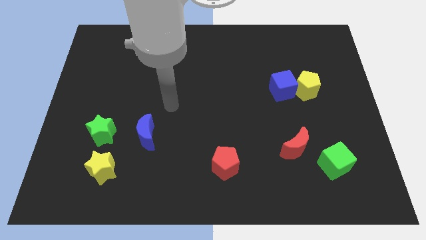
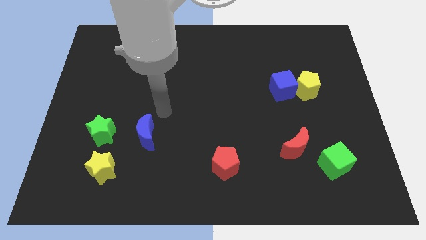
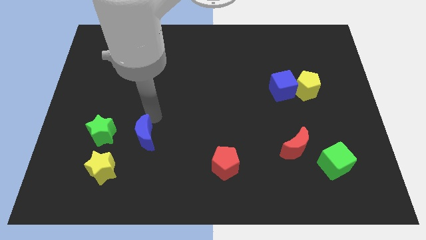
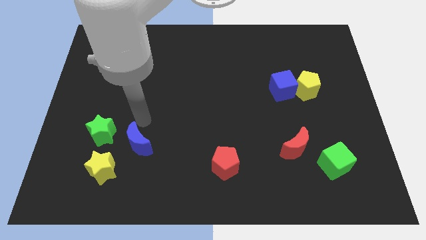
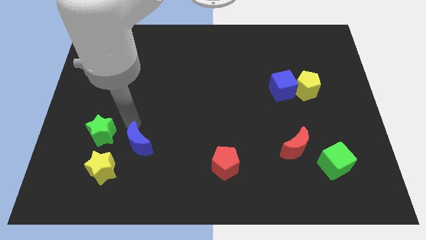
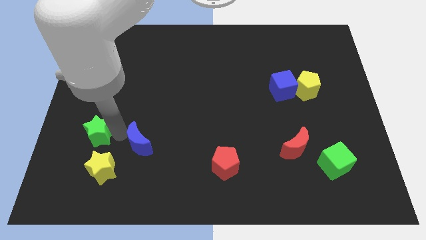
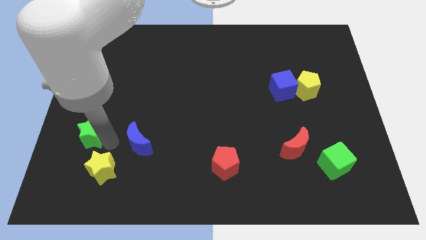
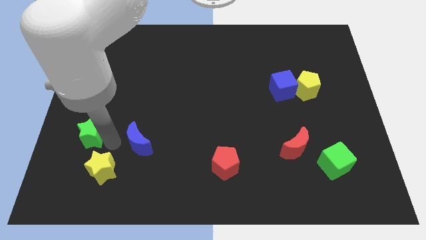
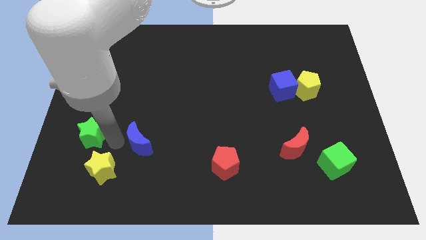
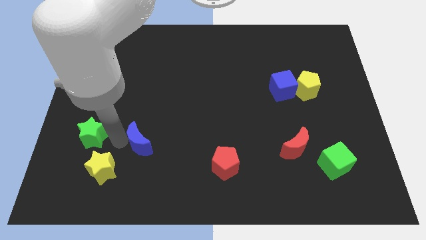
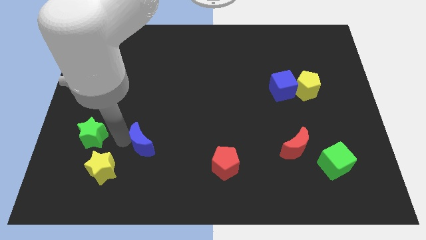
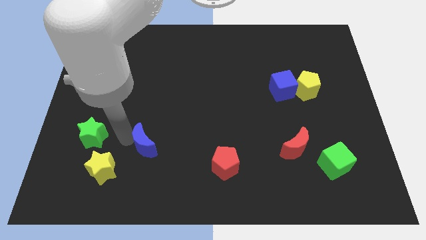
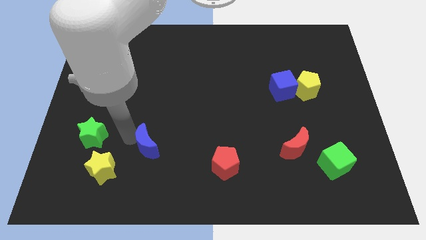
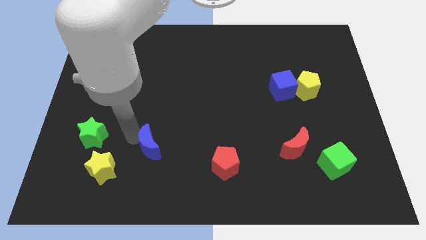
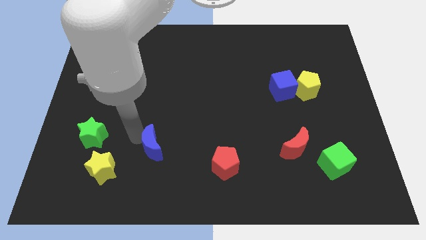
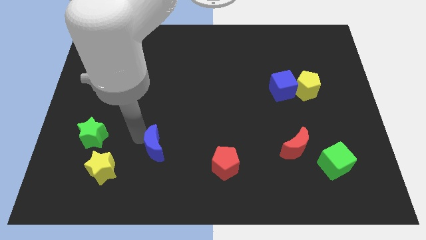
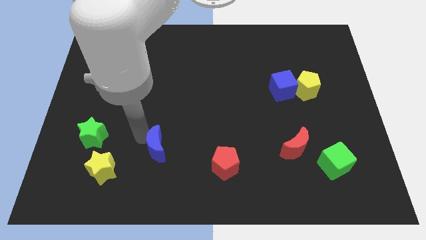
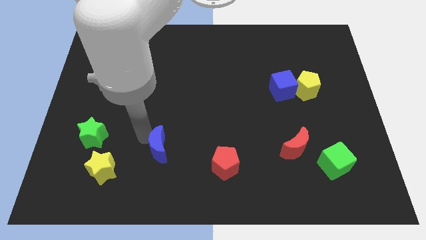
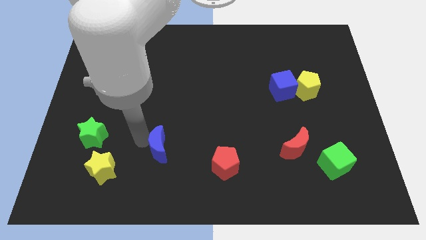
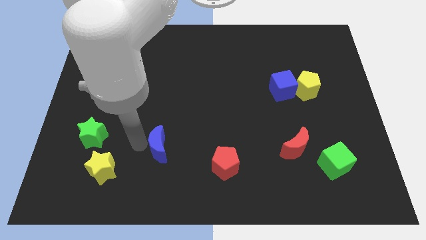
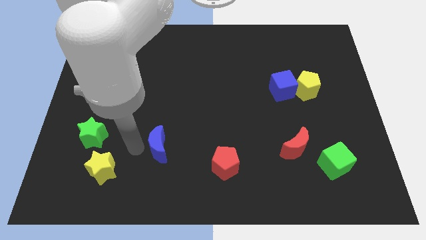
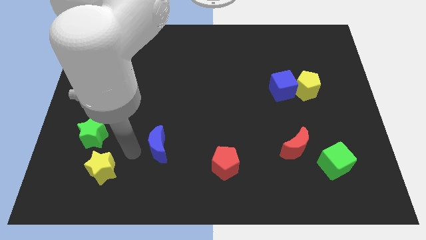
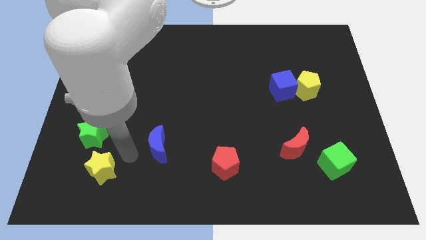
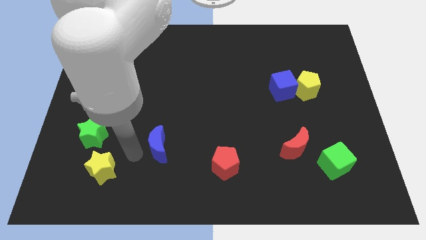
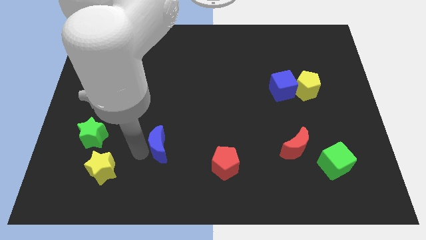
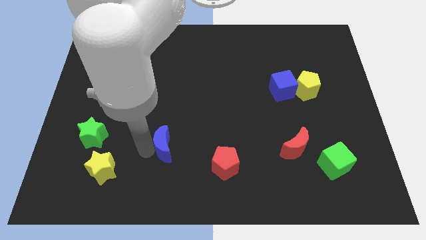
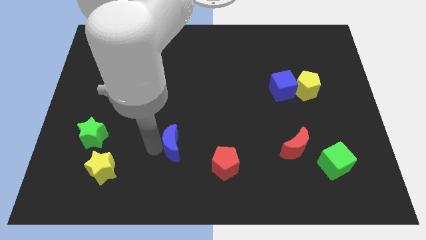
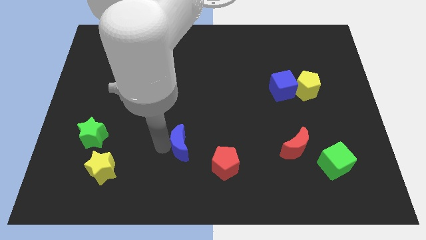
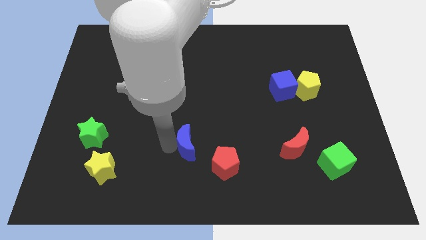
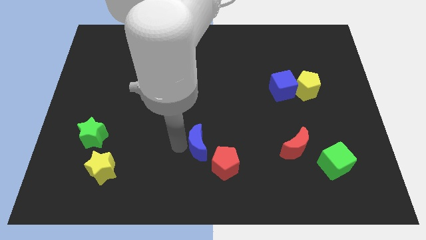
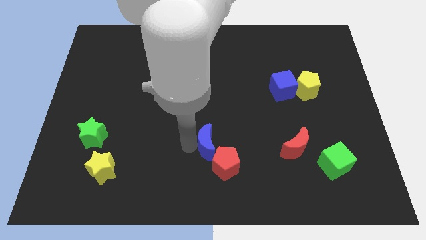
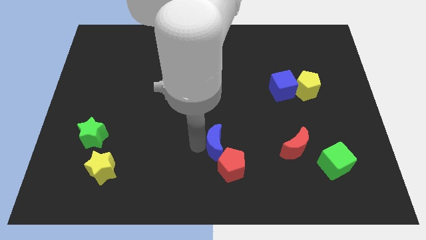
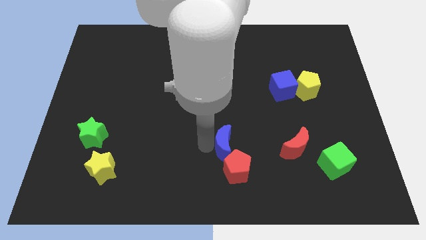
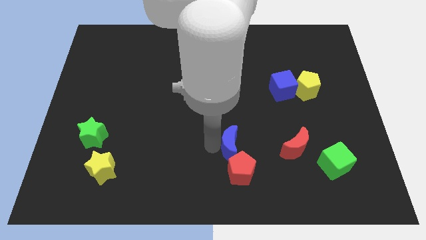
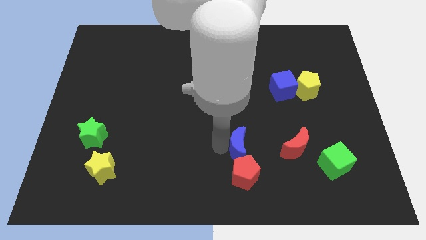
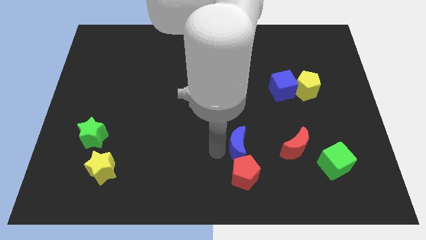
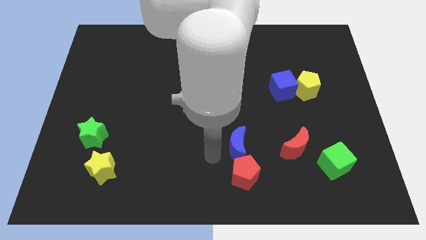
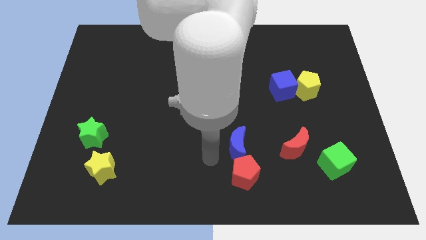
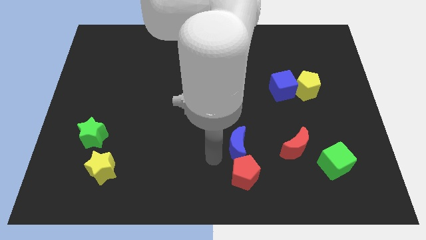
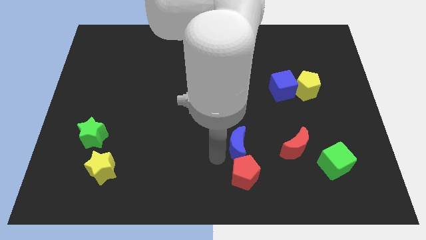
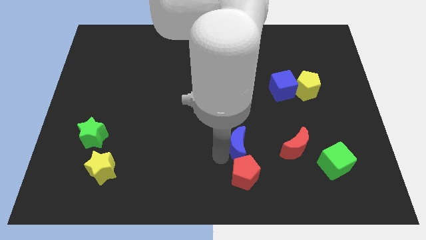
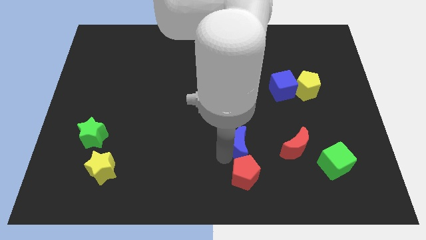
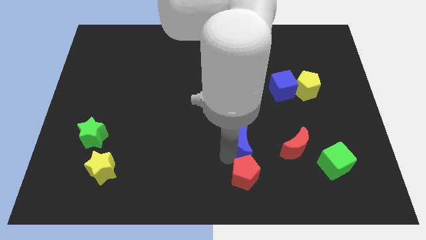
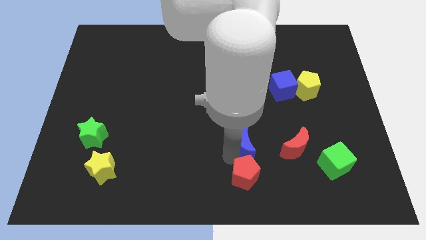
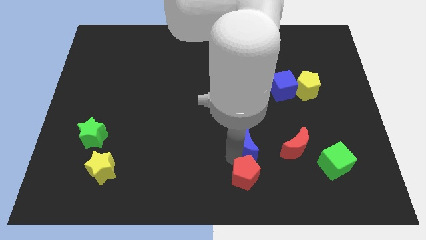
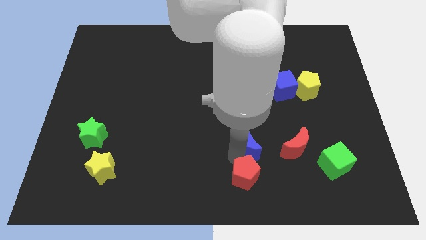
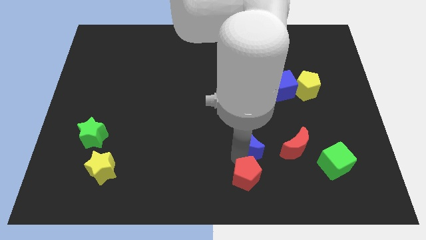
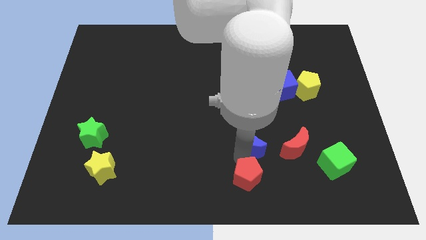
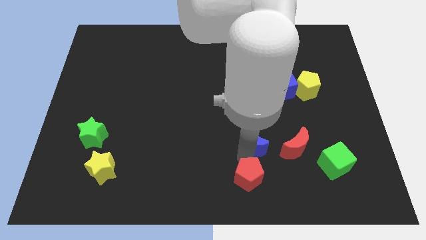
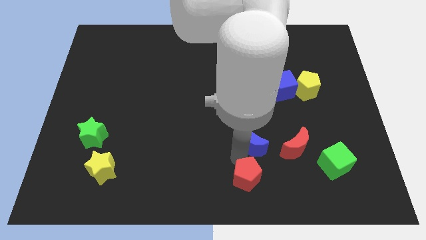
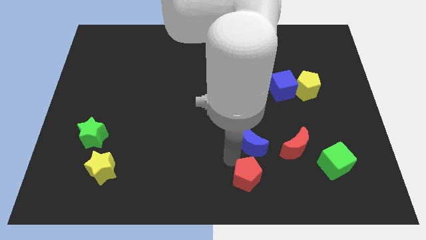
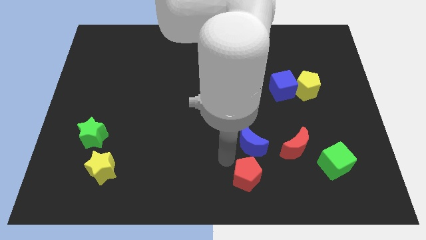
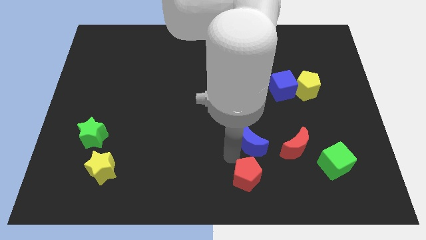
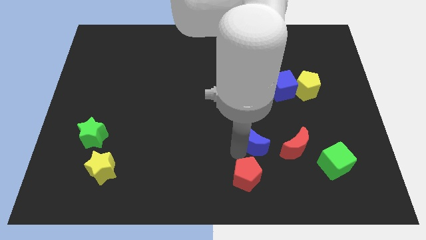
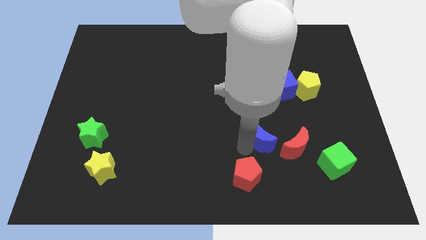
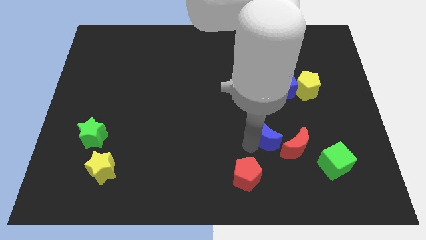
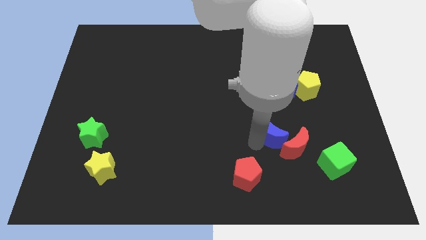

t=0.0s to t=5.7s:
move the blue moon below the blue cube

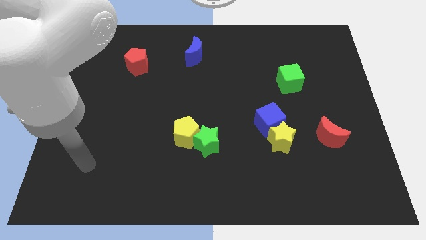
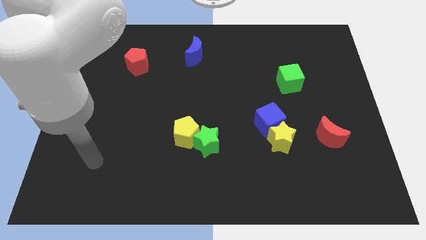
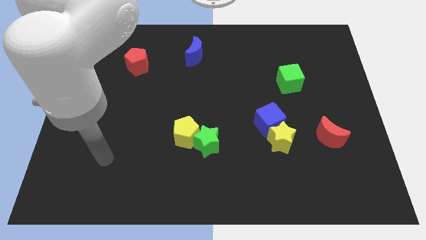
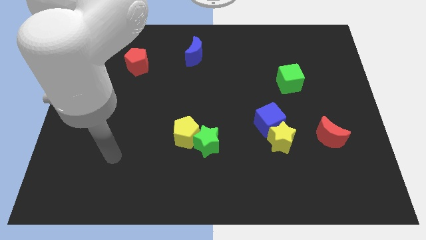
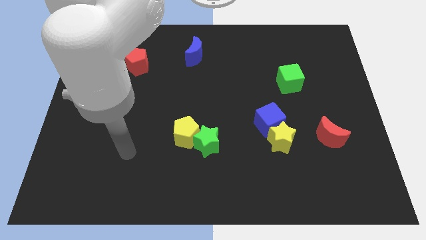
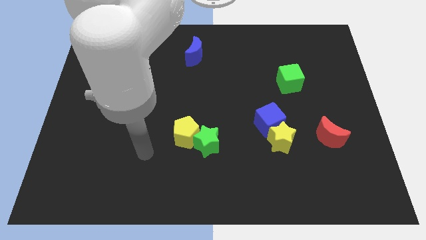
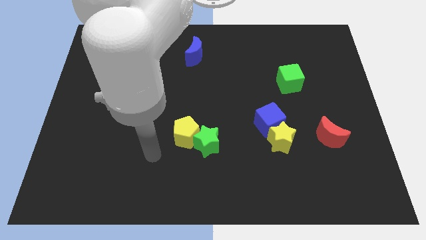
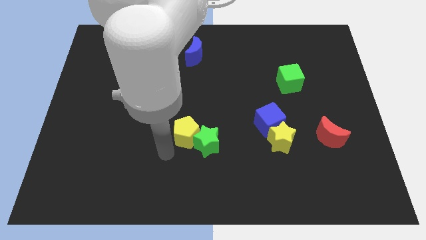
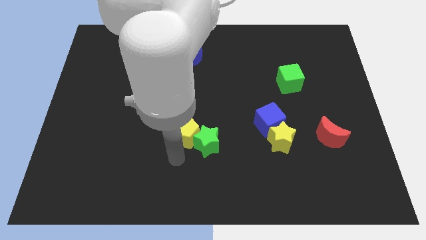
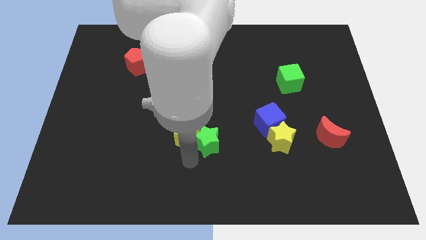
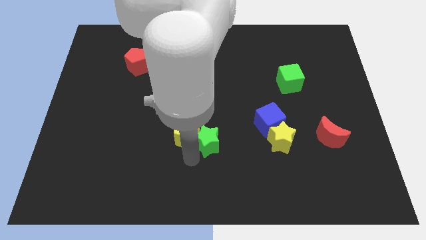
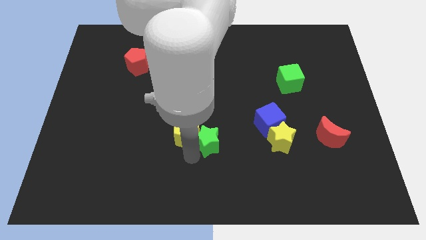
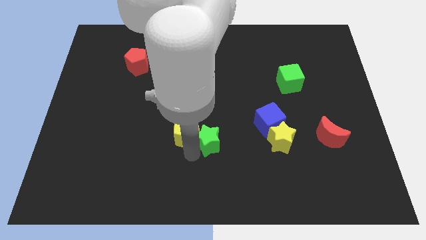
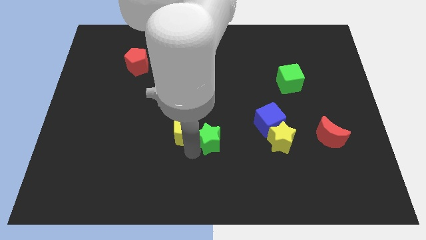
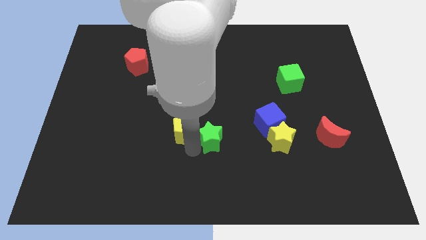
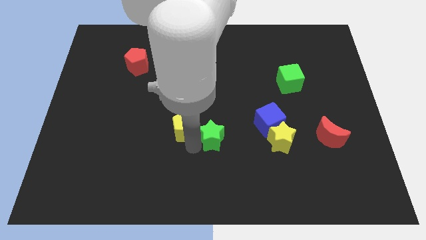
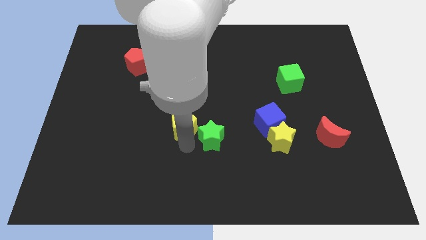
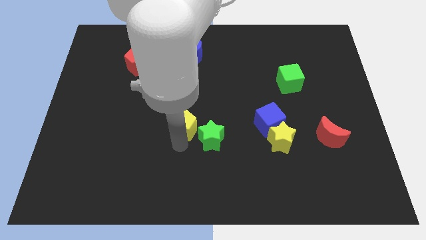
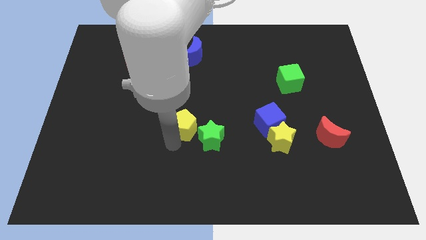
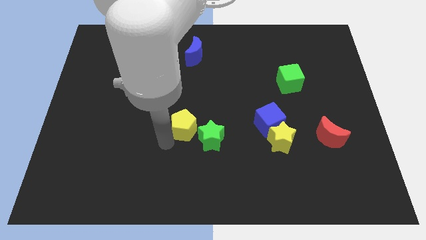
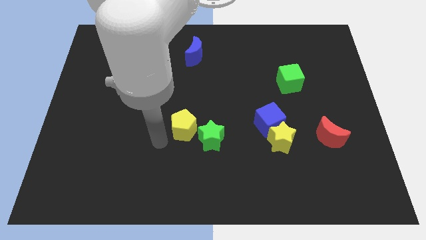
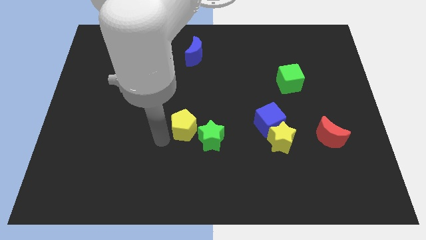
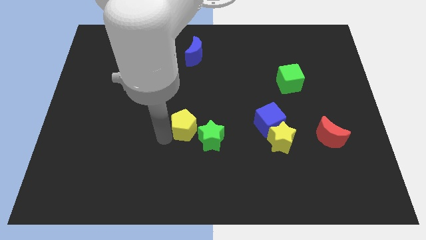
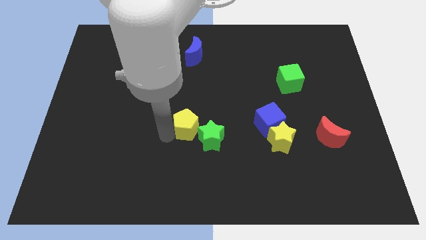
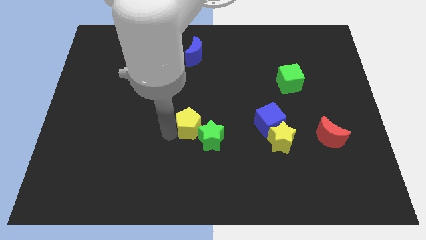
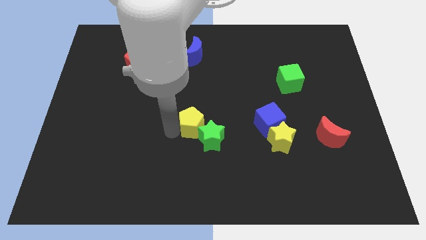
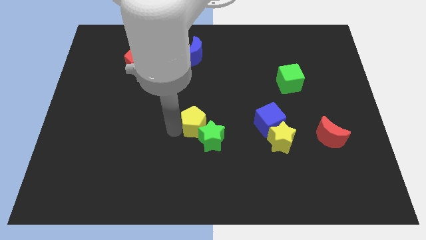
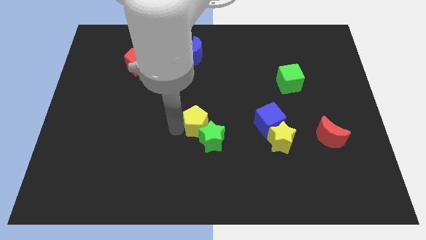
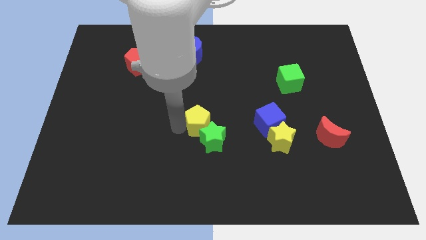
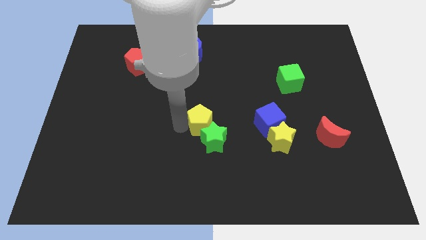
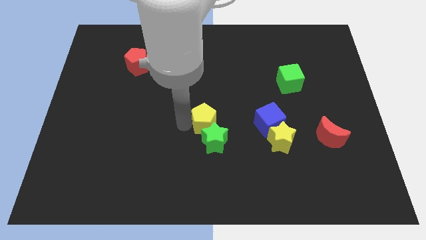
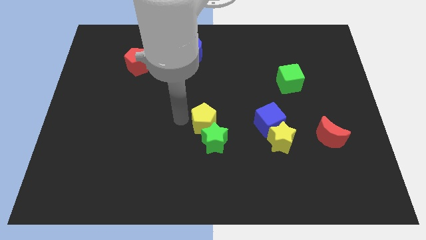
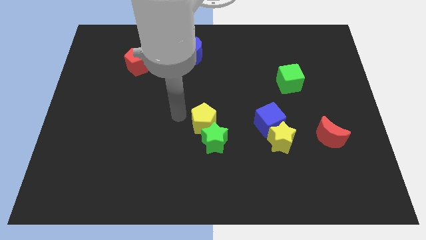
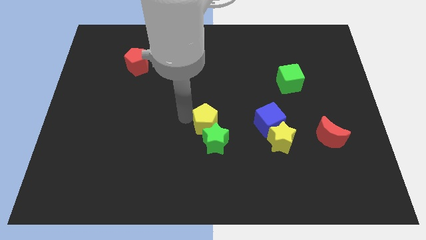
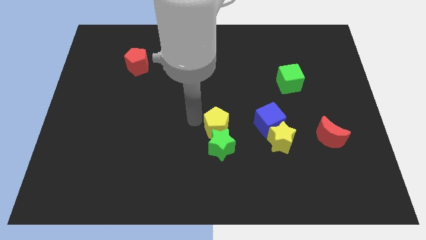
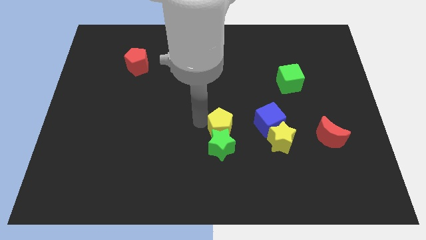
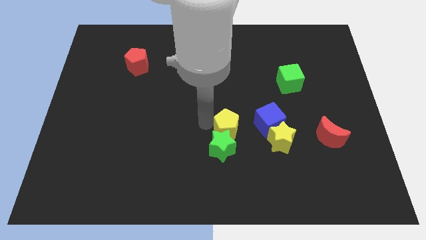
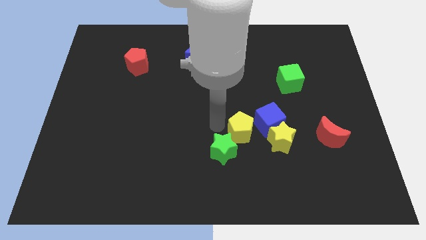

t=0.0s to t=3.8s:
move the yellow pentagon just right of the green star
